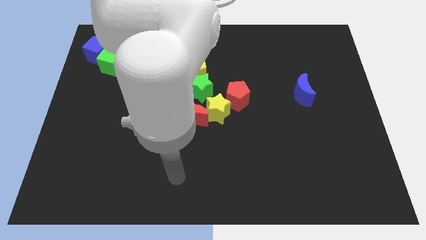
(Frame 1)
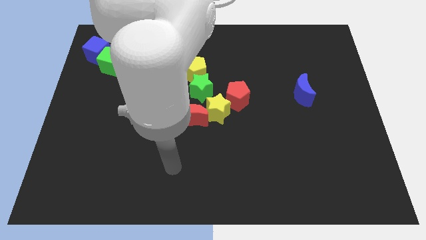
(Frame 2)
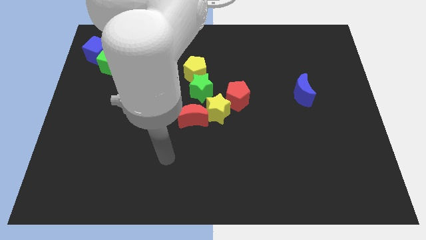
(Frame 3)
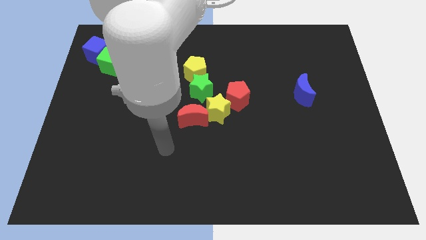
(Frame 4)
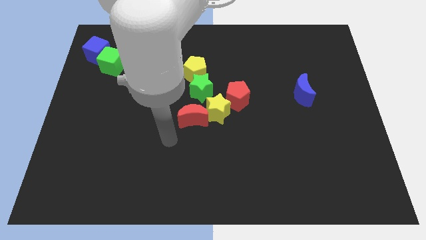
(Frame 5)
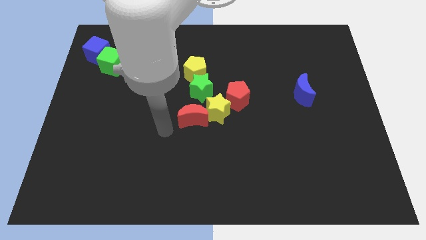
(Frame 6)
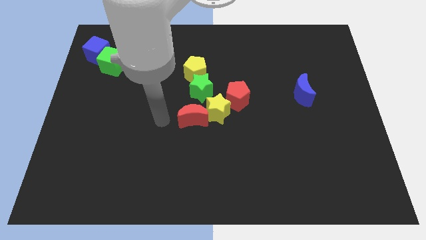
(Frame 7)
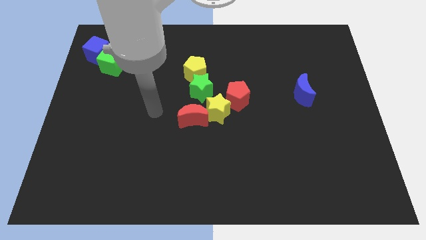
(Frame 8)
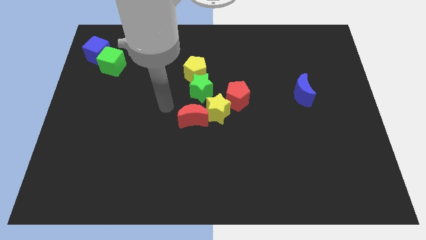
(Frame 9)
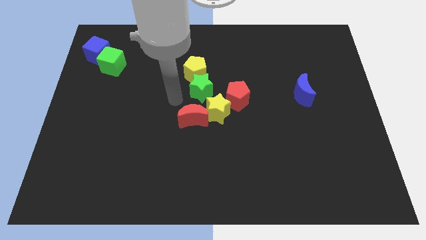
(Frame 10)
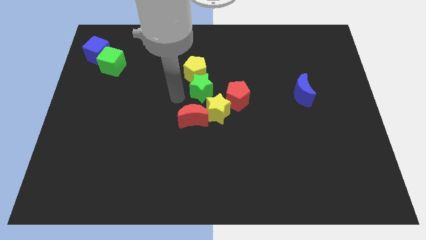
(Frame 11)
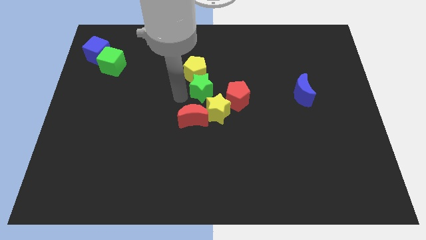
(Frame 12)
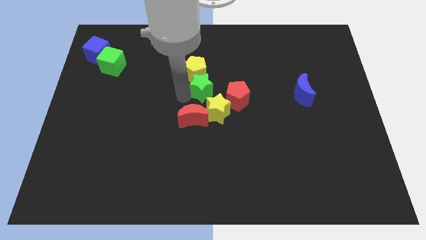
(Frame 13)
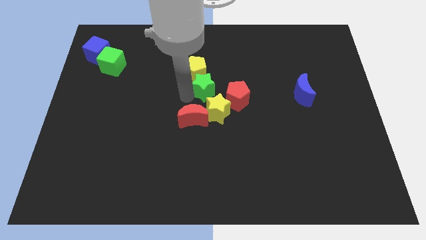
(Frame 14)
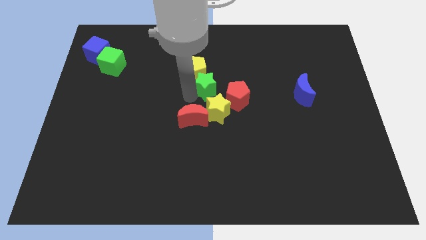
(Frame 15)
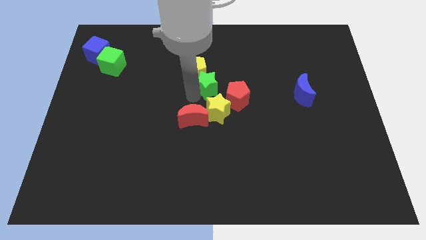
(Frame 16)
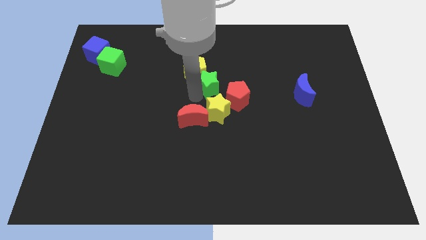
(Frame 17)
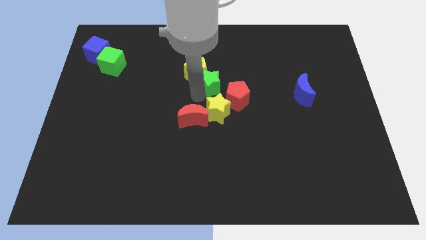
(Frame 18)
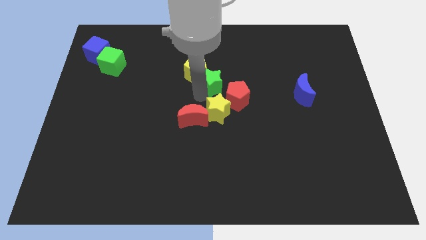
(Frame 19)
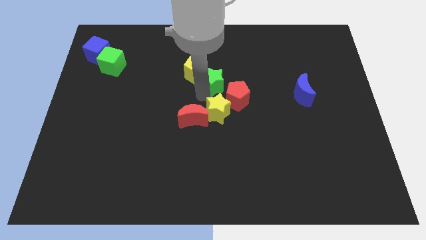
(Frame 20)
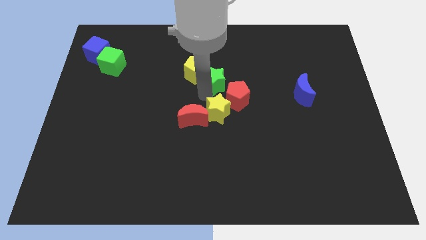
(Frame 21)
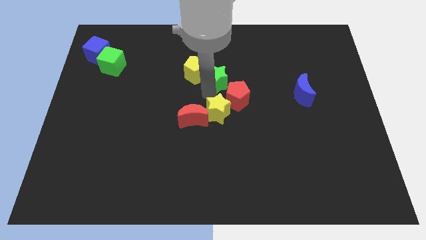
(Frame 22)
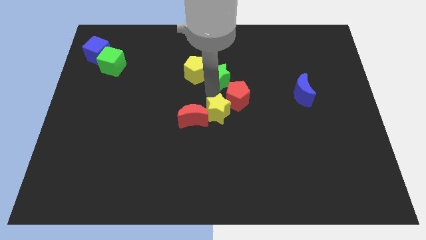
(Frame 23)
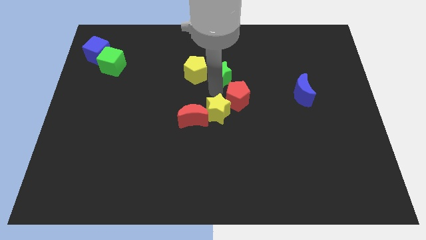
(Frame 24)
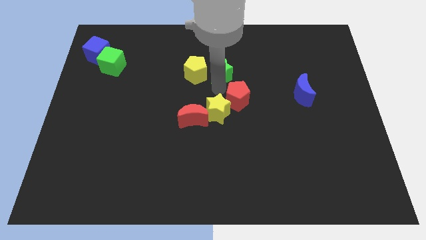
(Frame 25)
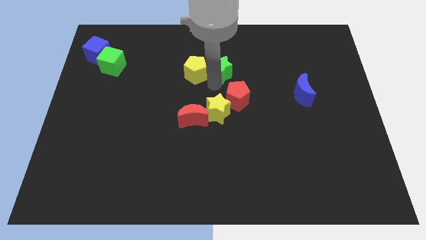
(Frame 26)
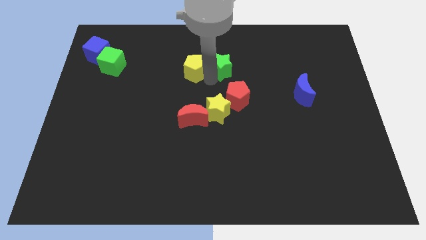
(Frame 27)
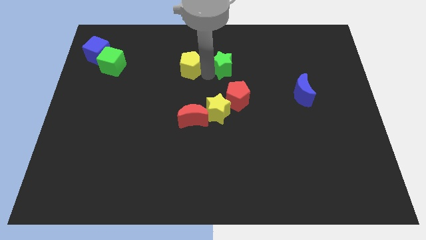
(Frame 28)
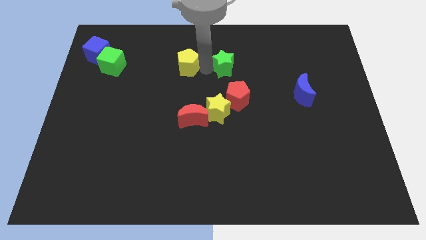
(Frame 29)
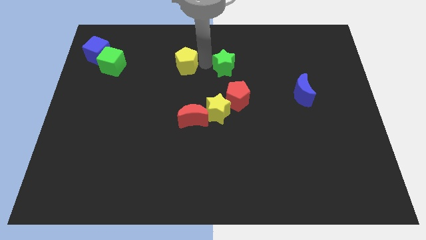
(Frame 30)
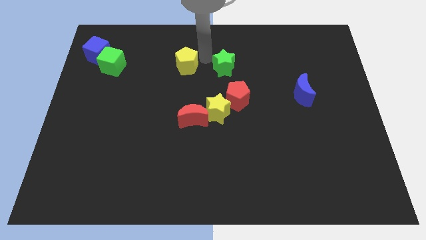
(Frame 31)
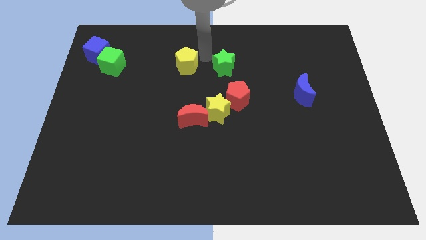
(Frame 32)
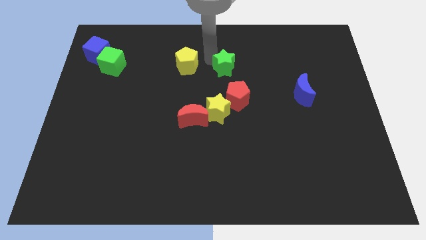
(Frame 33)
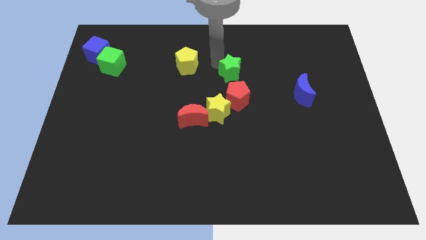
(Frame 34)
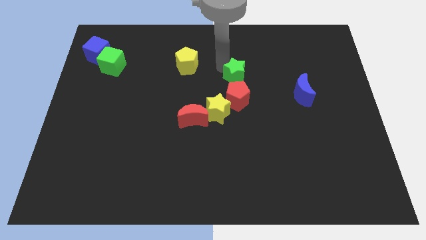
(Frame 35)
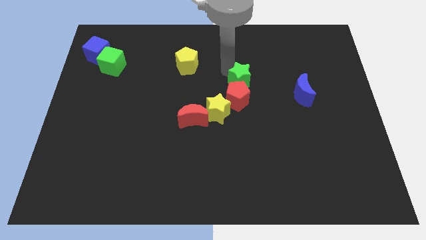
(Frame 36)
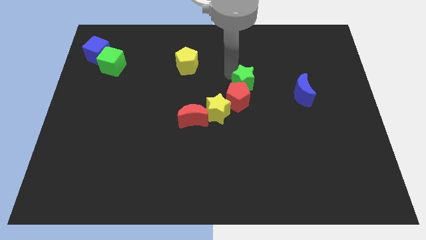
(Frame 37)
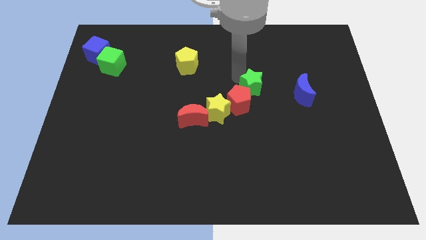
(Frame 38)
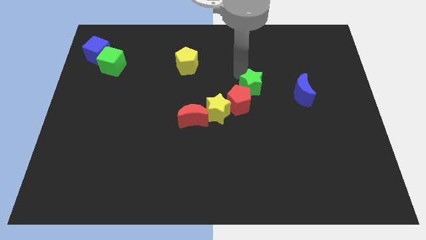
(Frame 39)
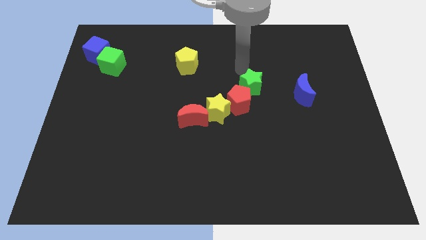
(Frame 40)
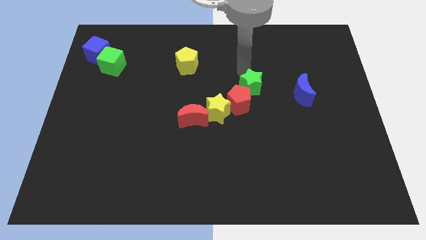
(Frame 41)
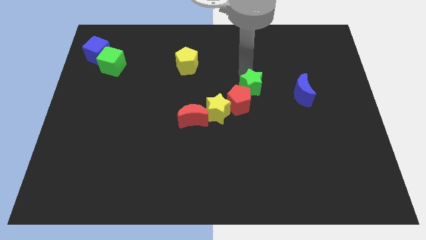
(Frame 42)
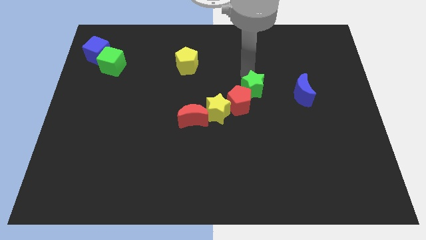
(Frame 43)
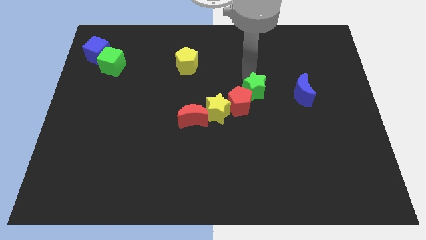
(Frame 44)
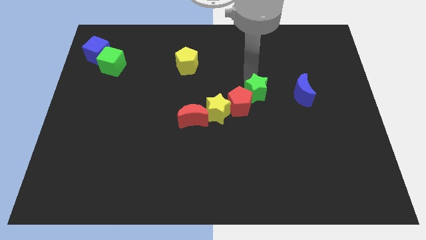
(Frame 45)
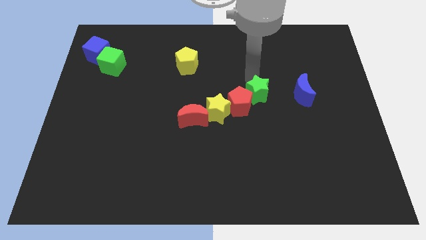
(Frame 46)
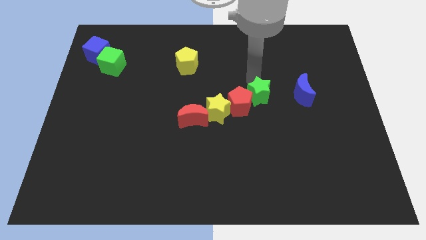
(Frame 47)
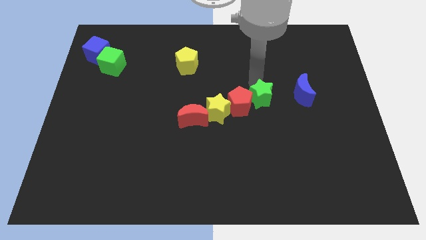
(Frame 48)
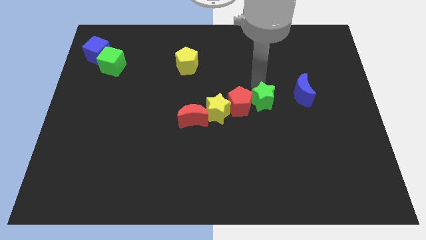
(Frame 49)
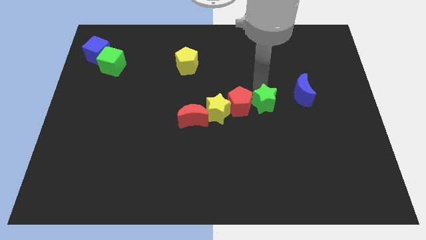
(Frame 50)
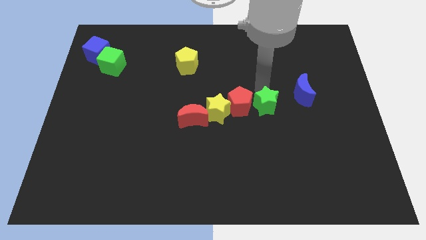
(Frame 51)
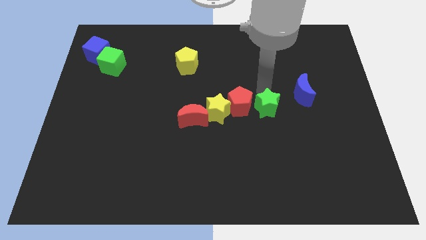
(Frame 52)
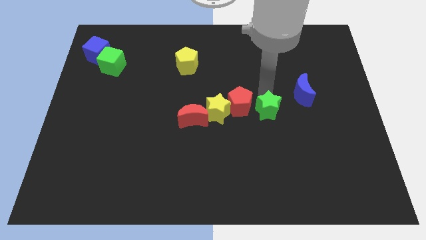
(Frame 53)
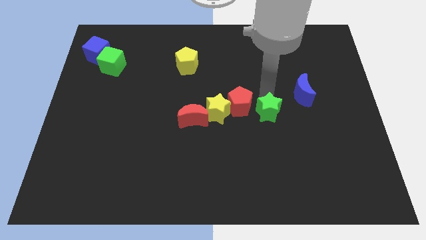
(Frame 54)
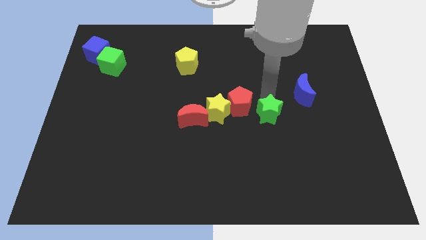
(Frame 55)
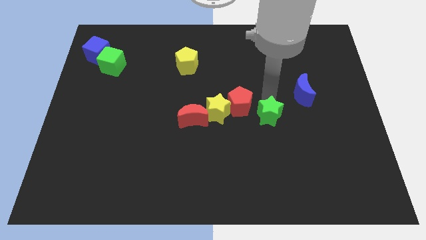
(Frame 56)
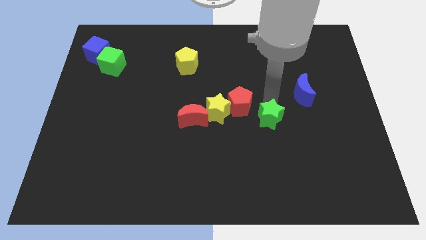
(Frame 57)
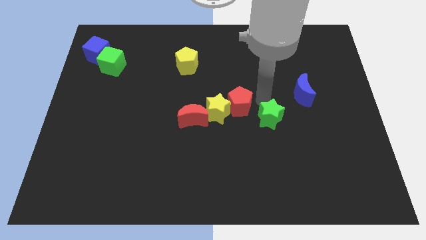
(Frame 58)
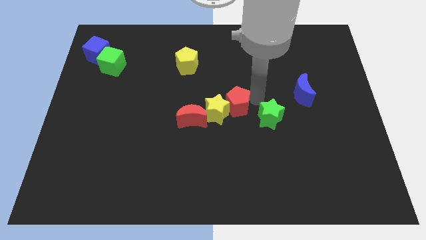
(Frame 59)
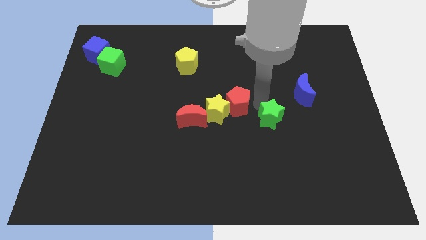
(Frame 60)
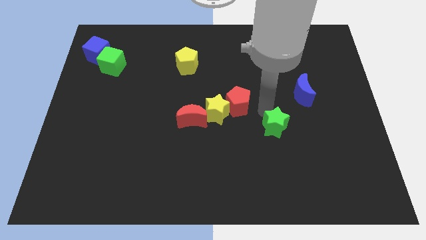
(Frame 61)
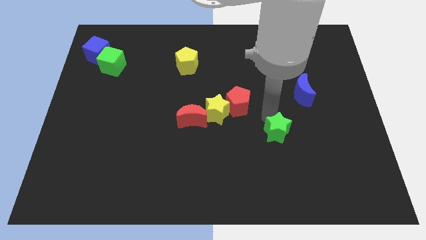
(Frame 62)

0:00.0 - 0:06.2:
move the green star downwards and to the right

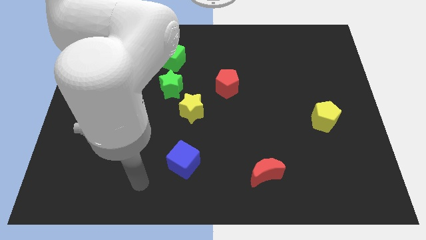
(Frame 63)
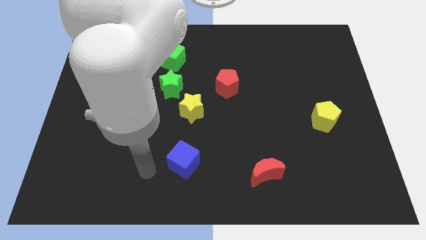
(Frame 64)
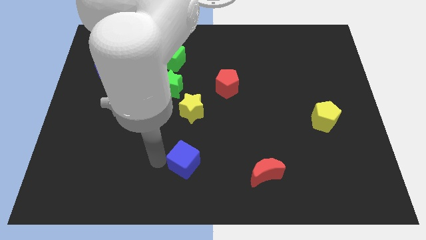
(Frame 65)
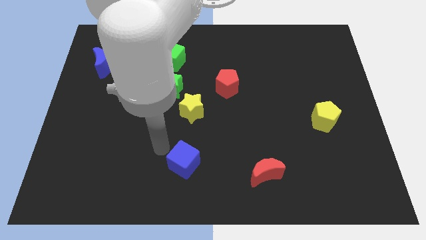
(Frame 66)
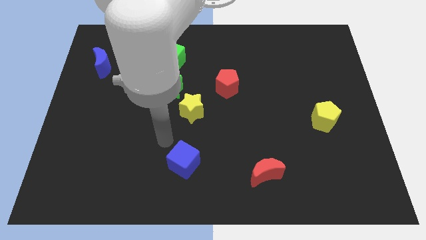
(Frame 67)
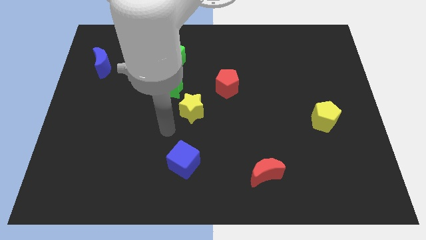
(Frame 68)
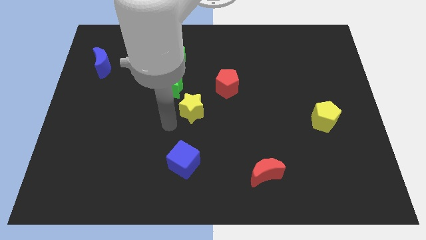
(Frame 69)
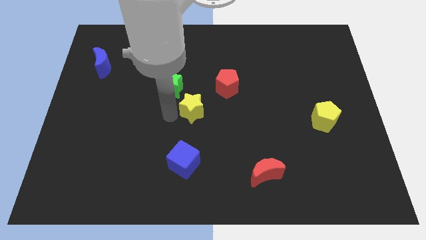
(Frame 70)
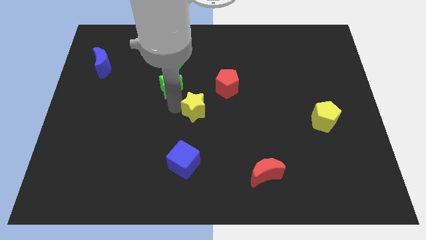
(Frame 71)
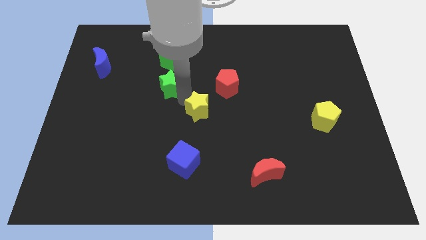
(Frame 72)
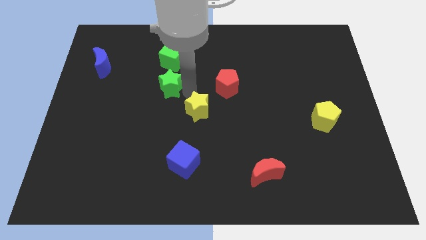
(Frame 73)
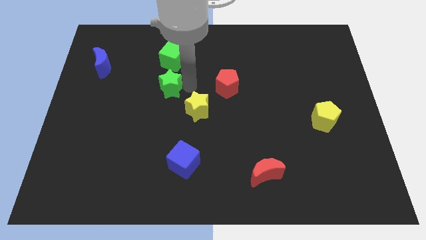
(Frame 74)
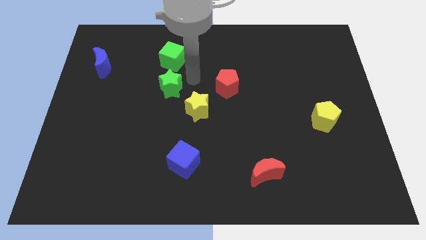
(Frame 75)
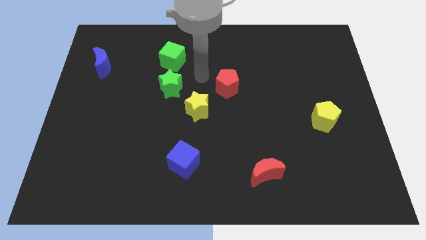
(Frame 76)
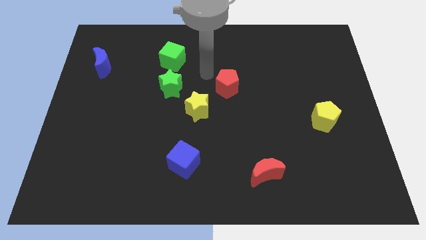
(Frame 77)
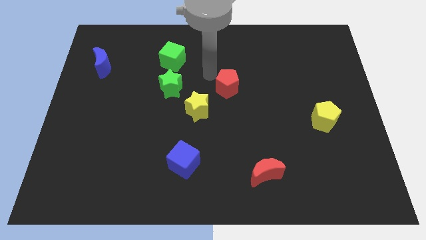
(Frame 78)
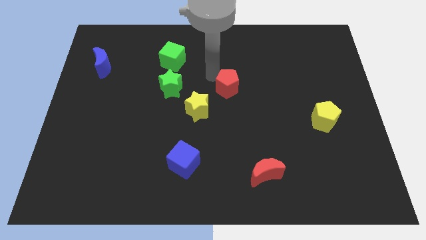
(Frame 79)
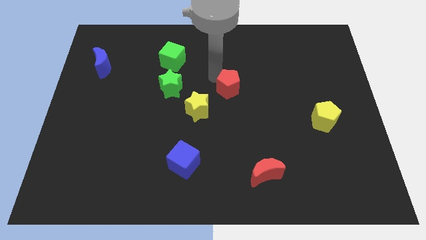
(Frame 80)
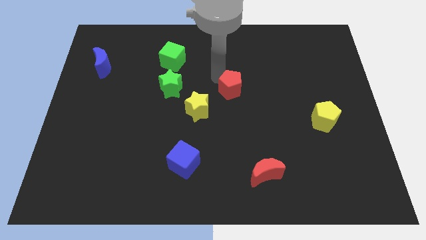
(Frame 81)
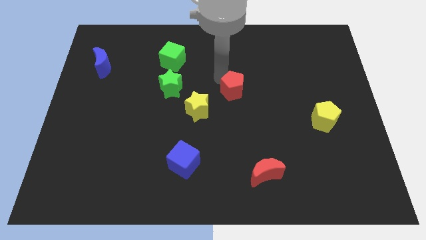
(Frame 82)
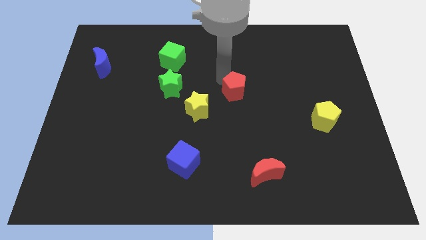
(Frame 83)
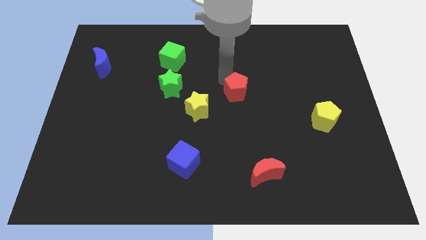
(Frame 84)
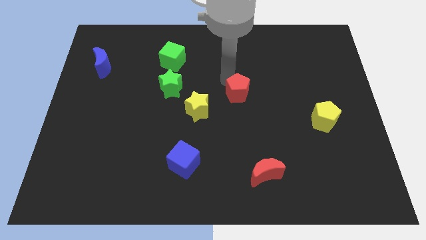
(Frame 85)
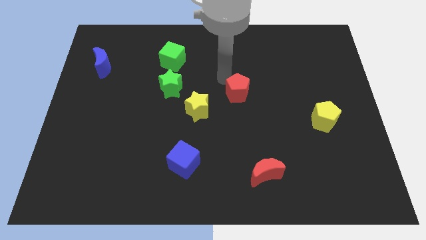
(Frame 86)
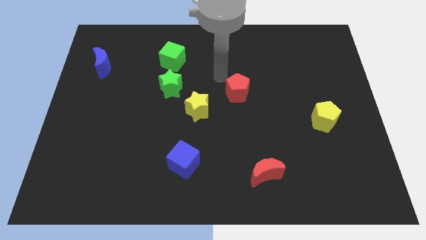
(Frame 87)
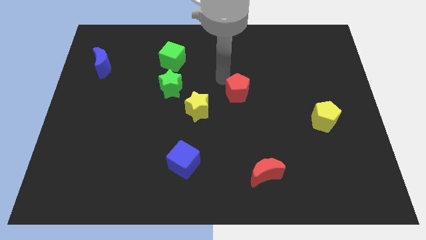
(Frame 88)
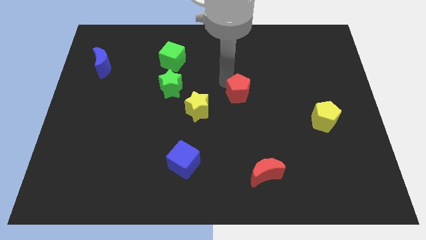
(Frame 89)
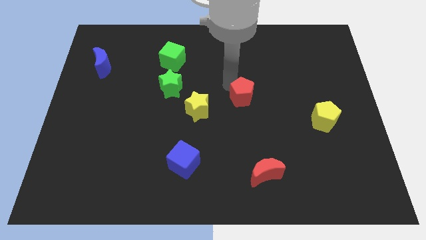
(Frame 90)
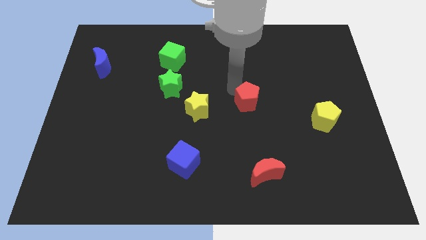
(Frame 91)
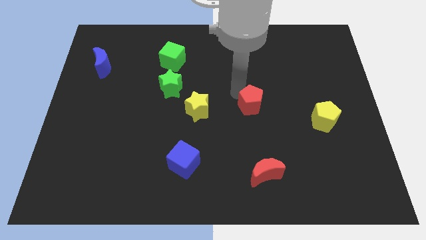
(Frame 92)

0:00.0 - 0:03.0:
slightly push the red pentagon downwards and then to the right
